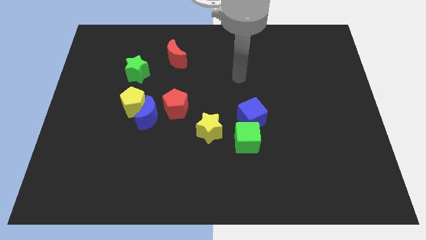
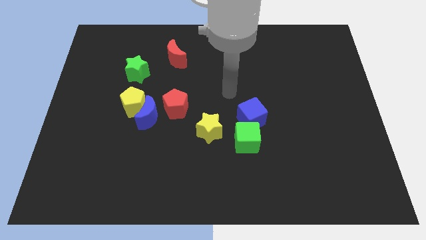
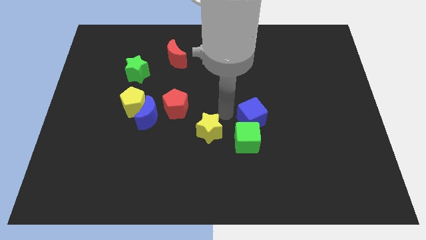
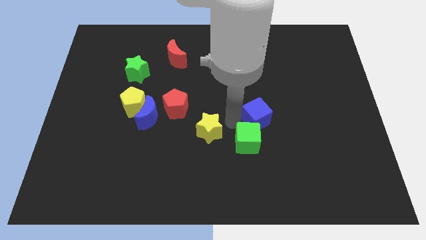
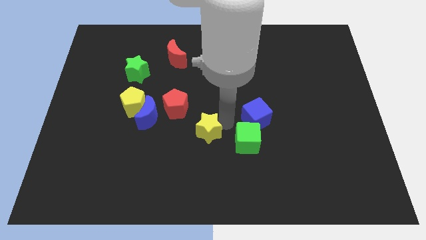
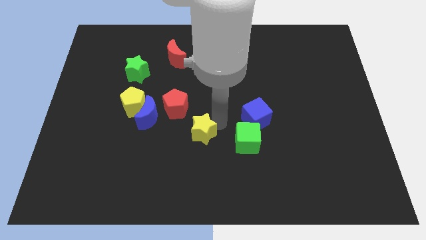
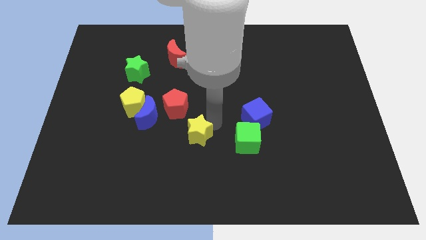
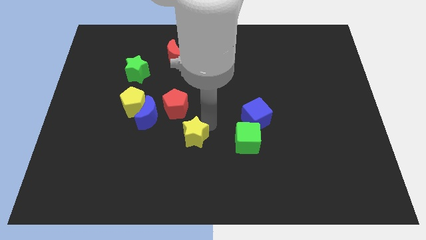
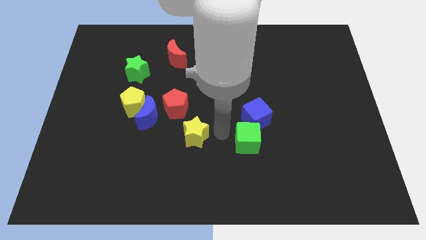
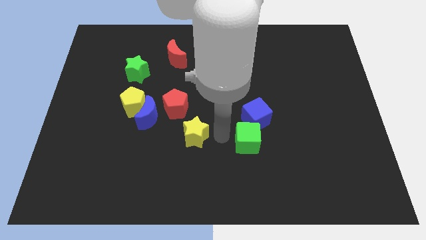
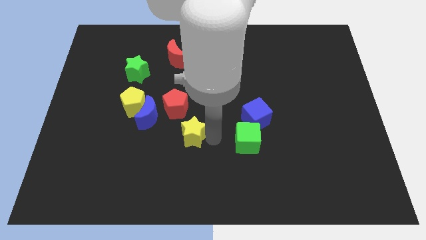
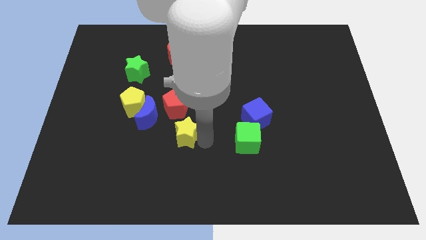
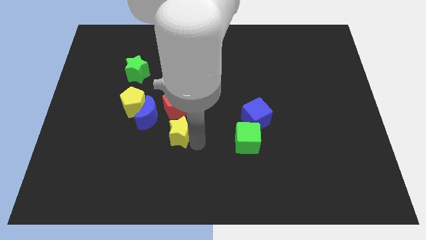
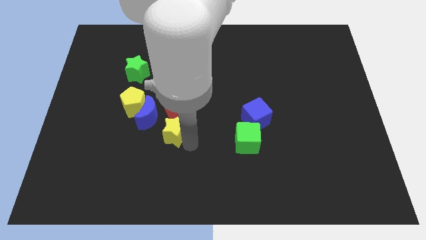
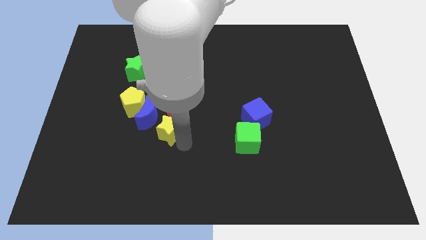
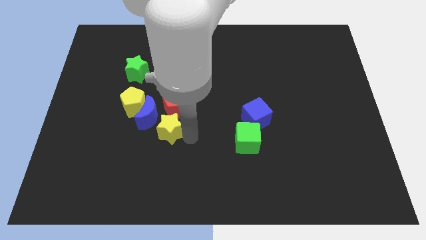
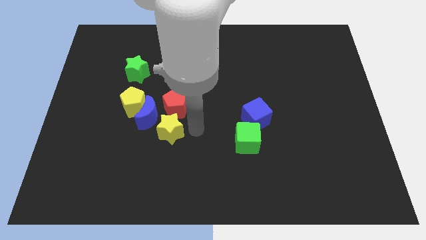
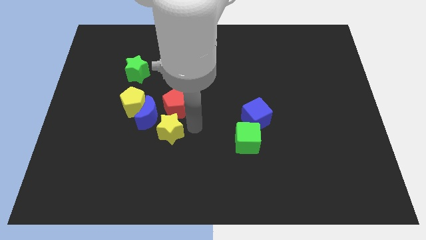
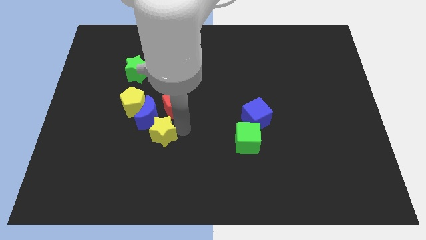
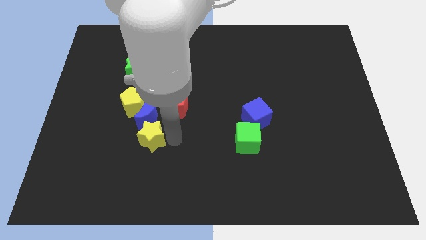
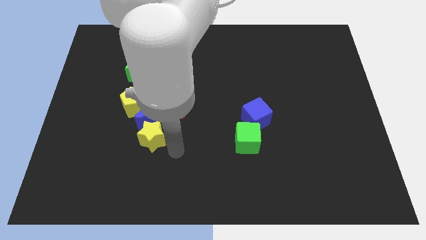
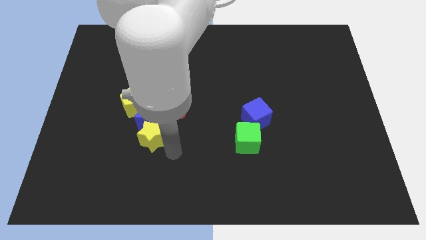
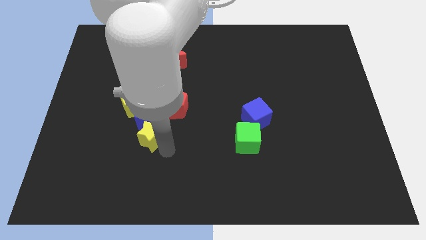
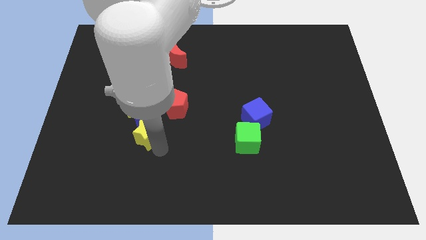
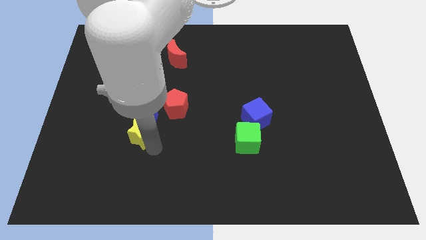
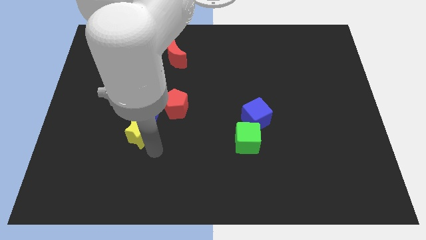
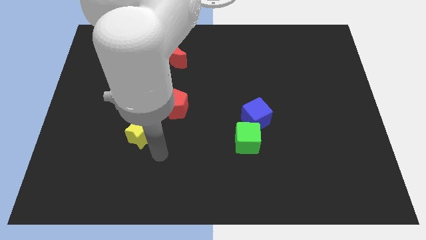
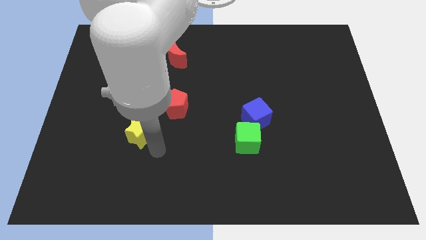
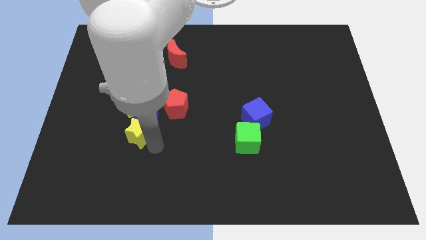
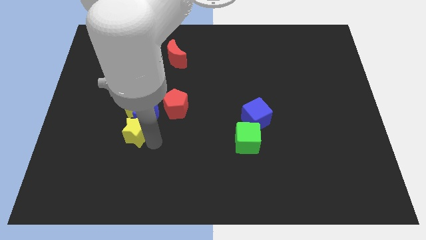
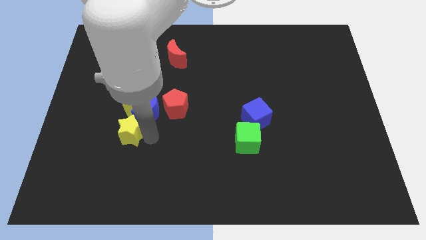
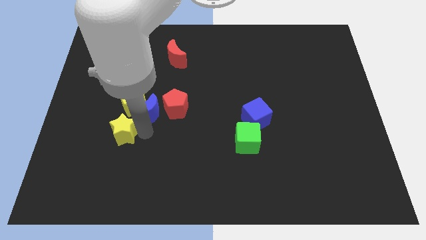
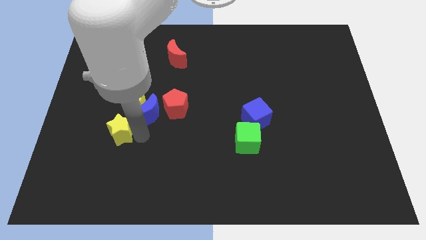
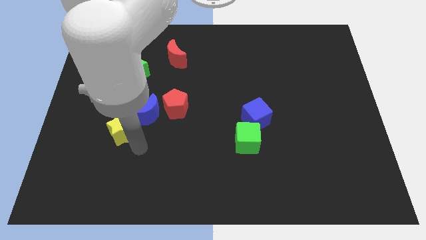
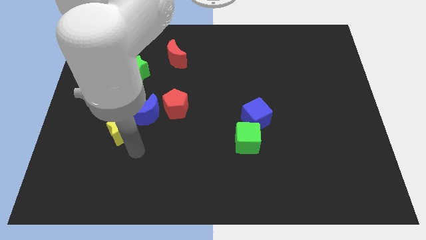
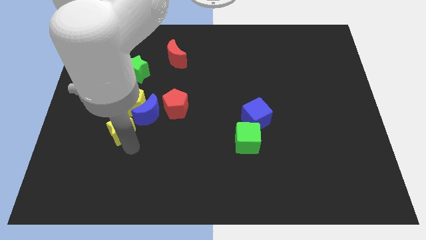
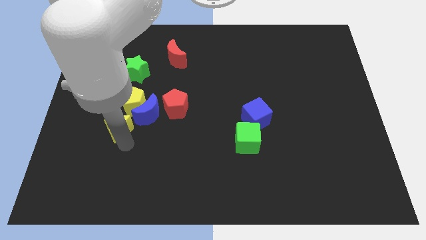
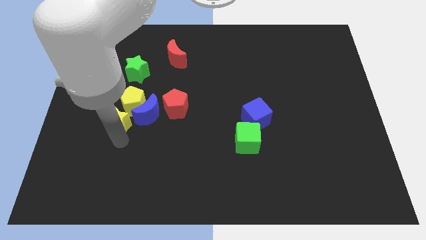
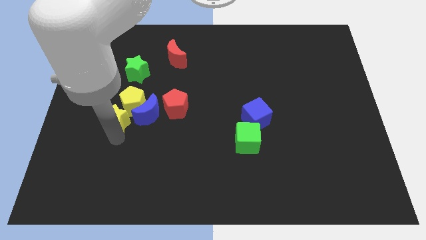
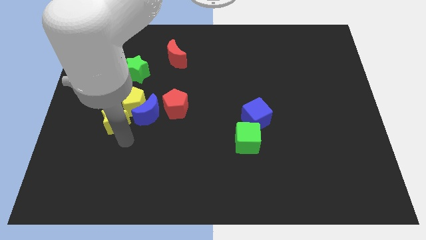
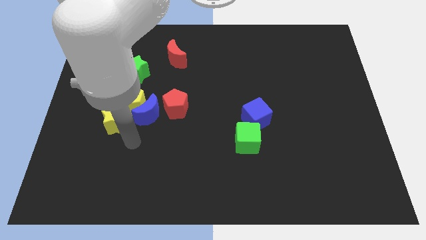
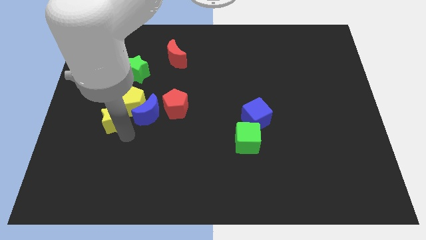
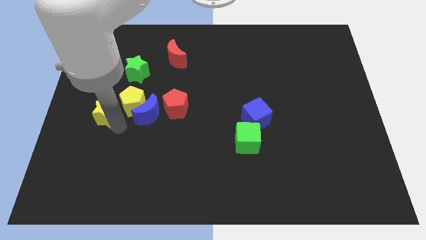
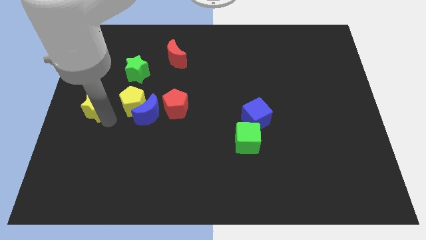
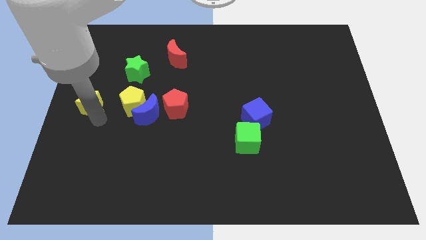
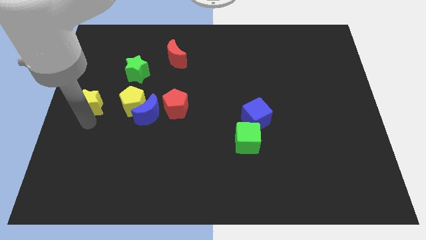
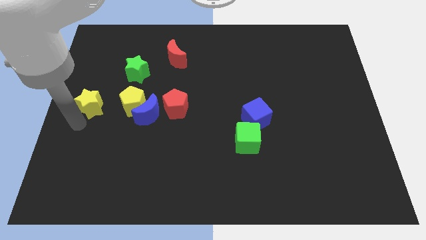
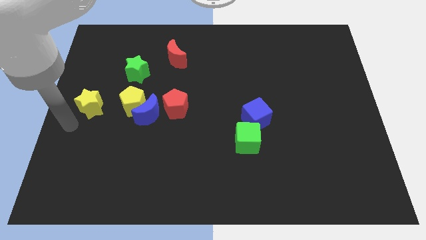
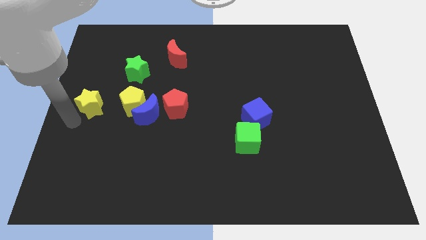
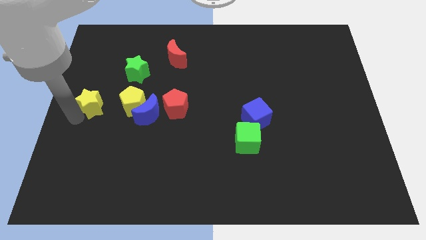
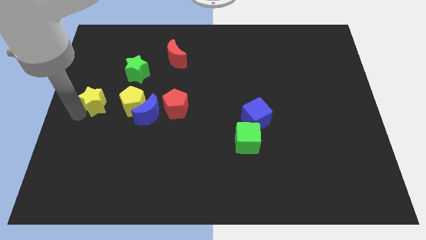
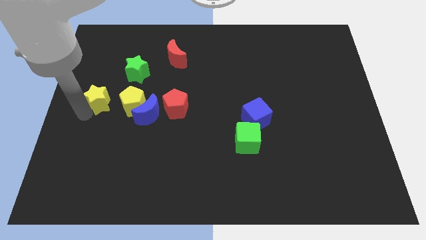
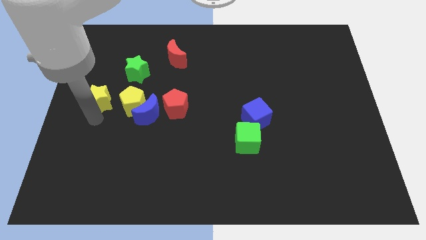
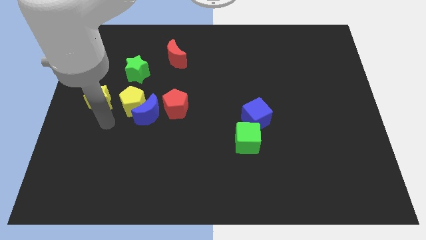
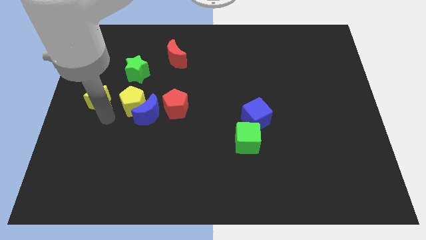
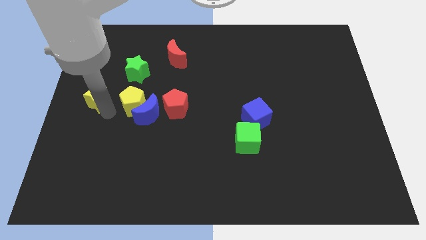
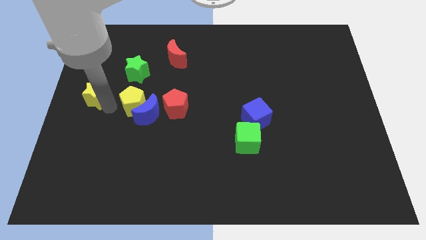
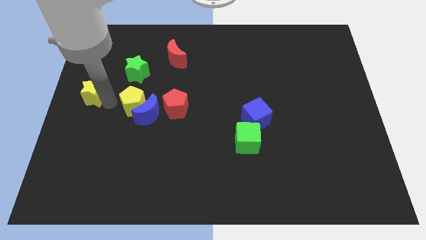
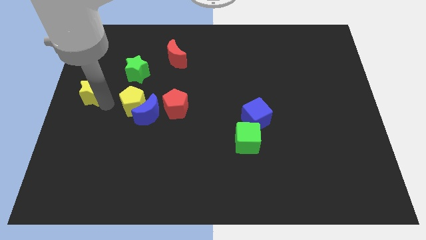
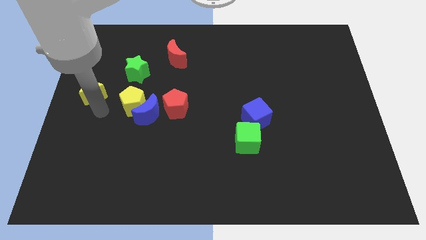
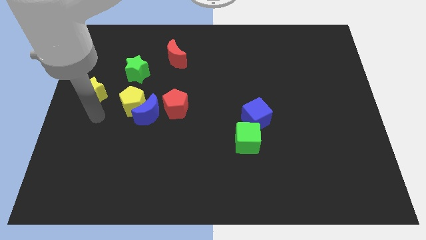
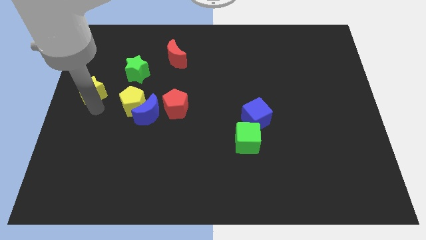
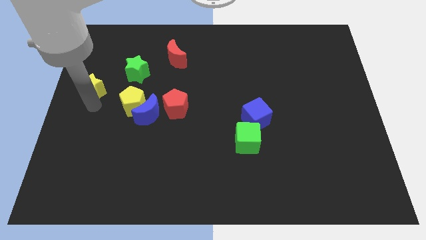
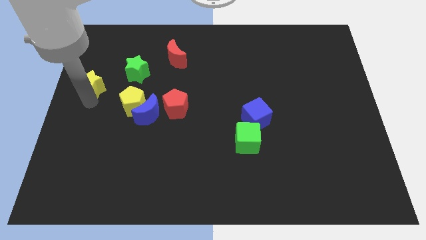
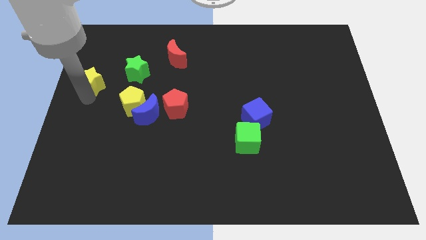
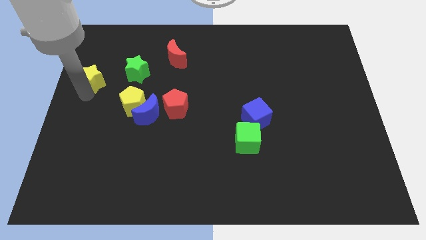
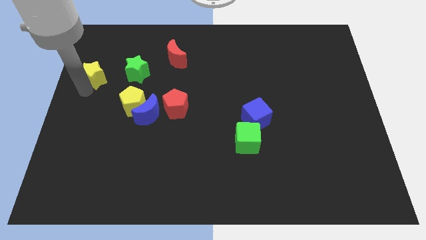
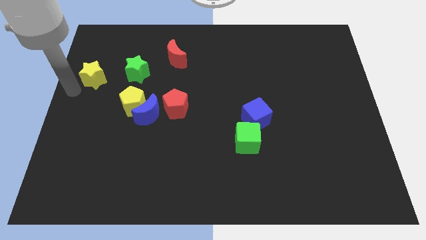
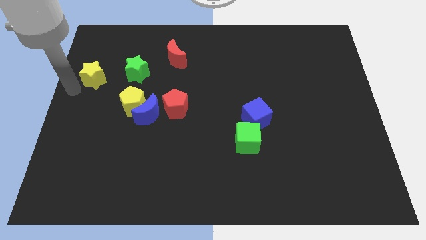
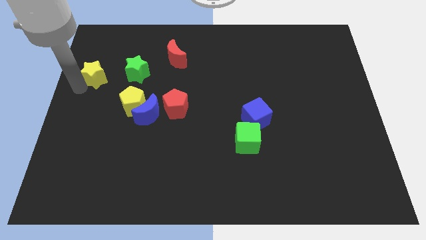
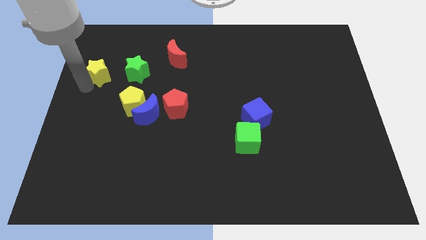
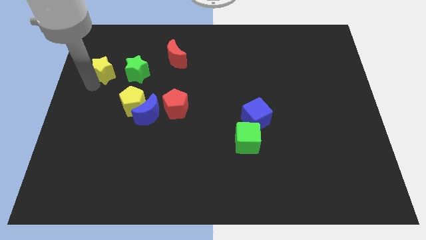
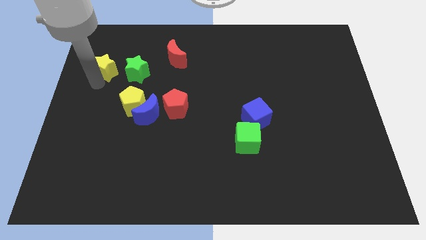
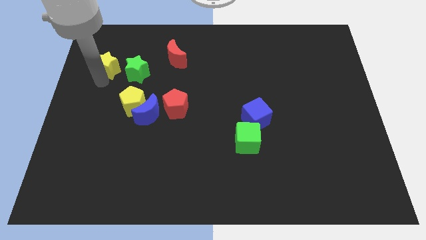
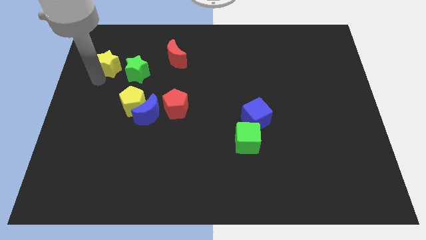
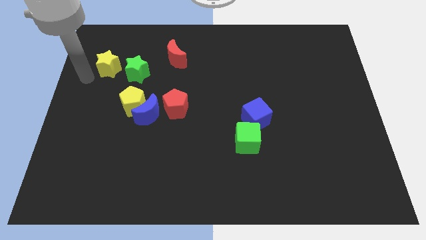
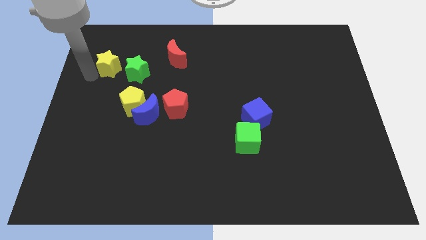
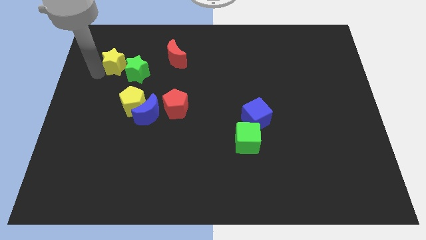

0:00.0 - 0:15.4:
move the yellow star to the left of the red moon

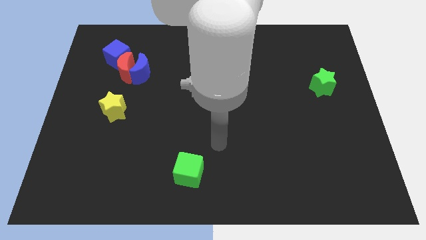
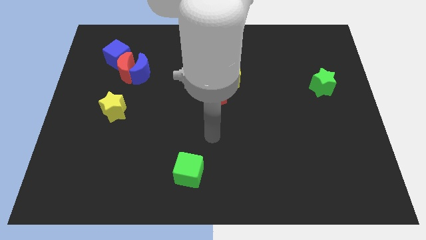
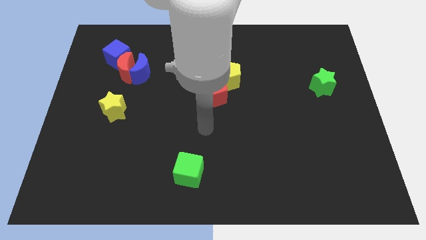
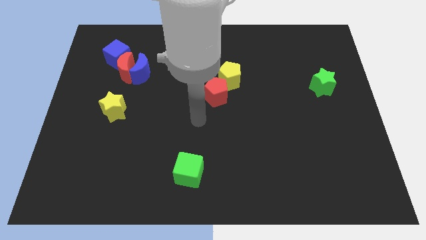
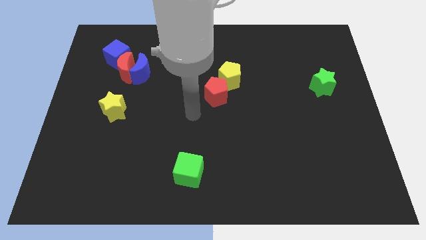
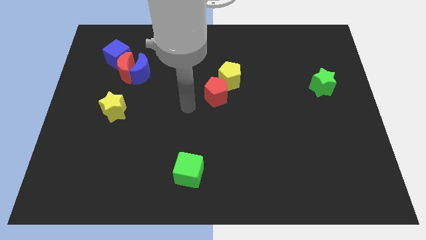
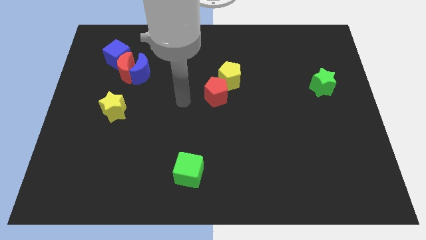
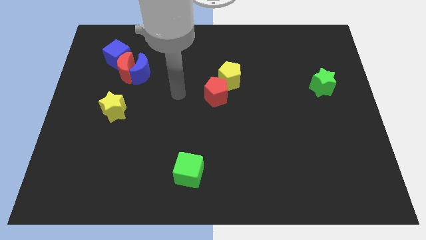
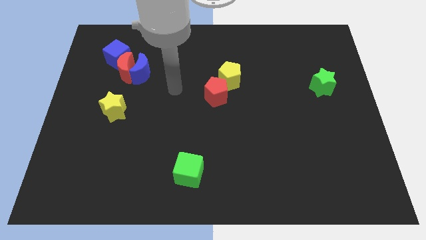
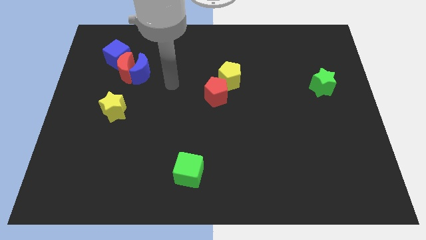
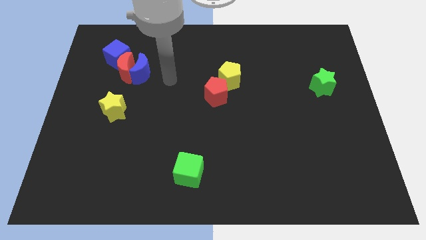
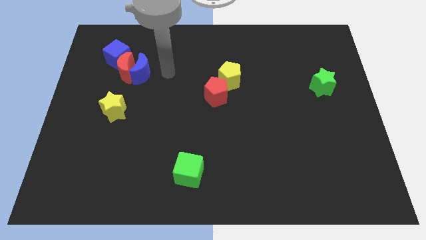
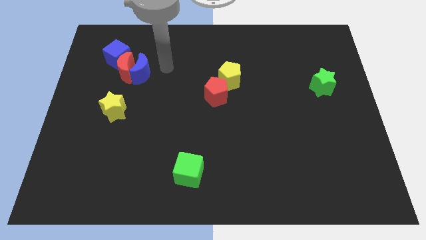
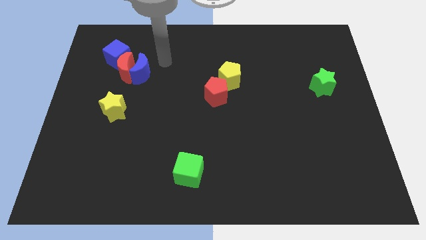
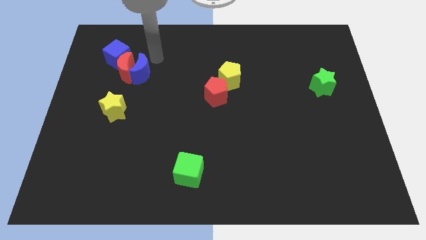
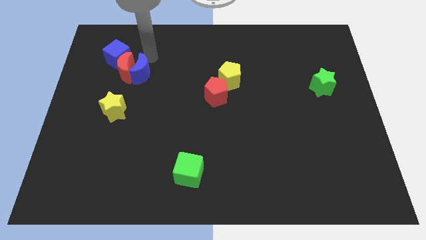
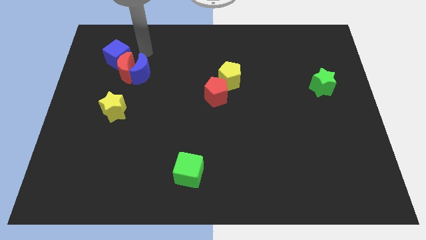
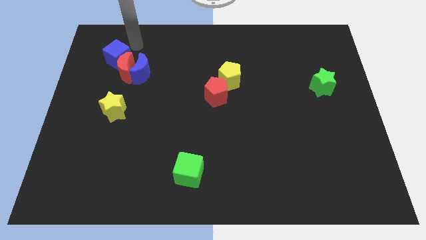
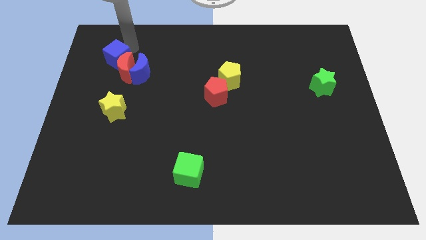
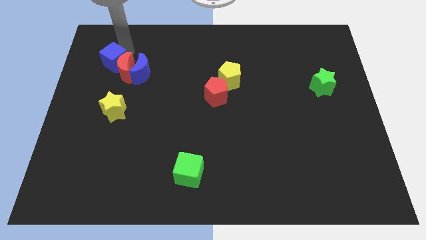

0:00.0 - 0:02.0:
put the blue cube to the left side of the blue moon
